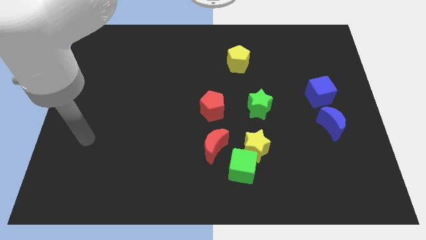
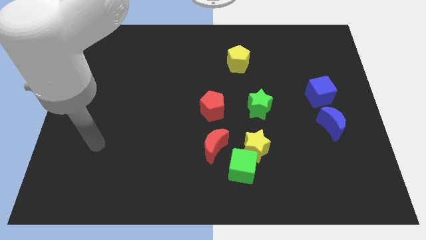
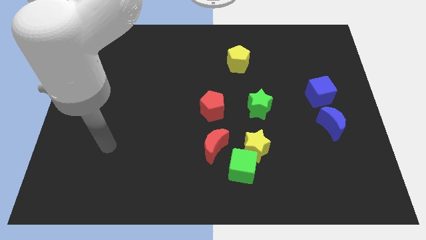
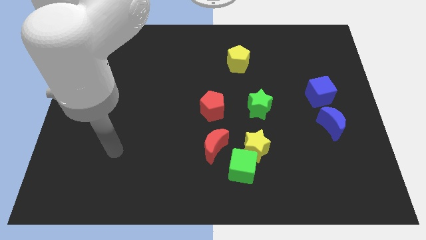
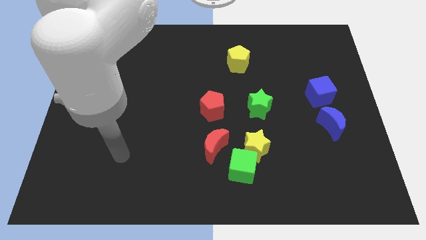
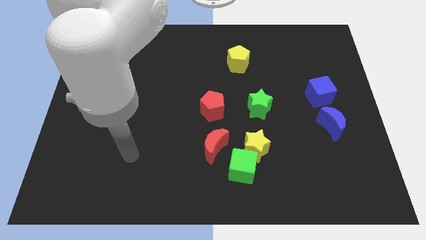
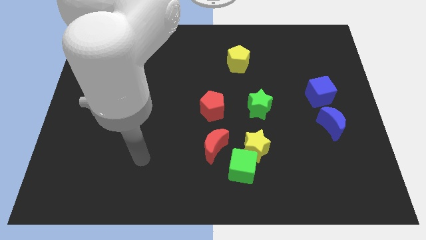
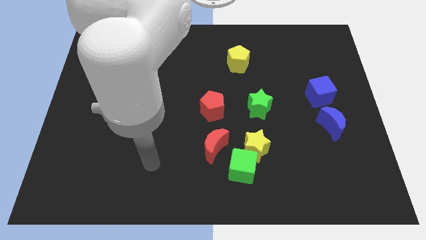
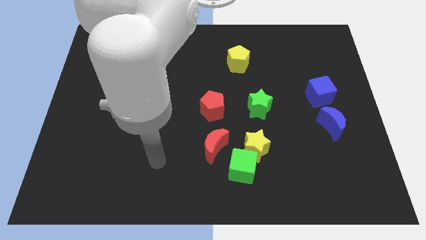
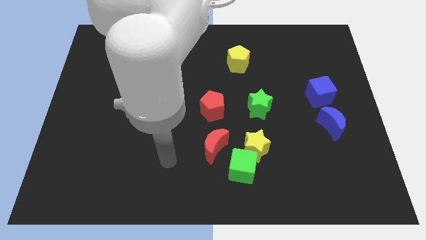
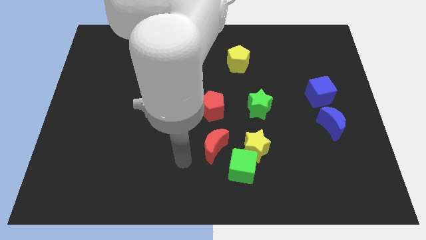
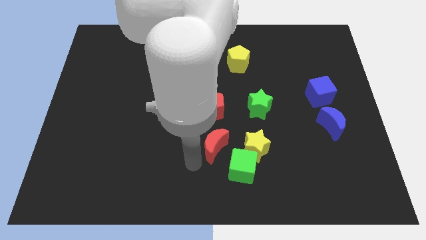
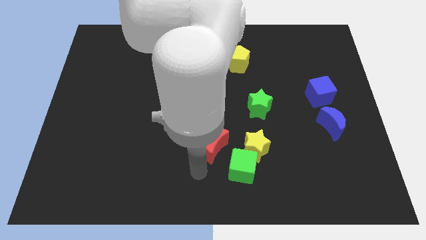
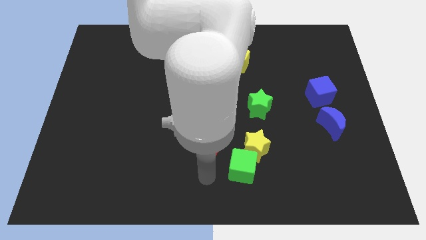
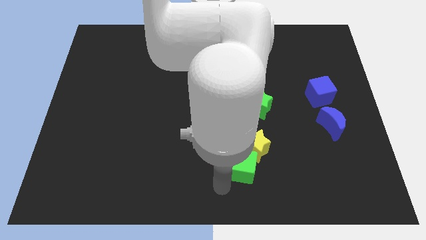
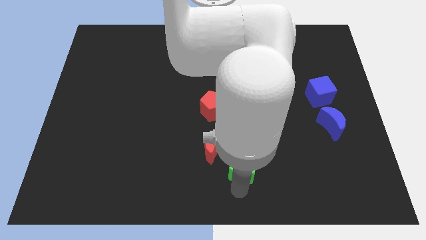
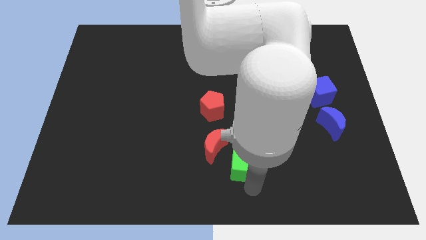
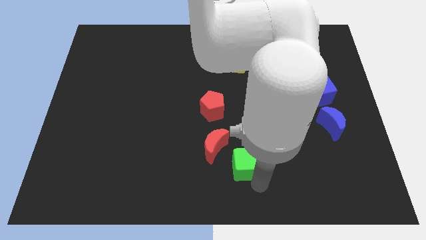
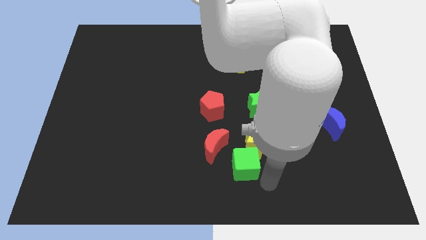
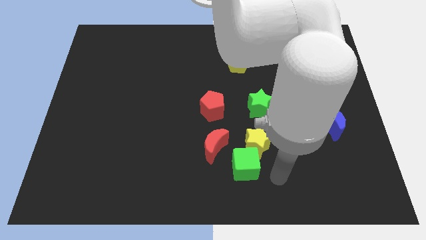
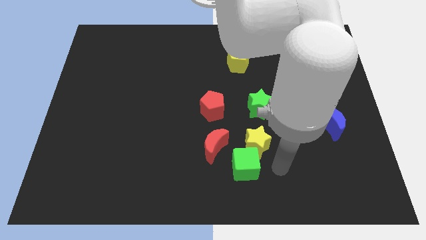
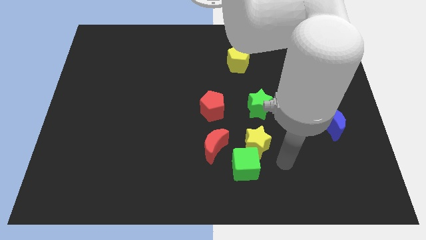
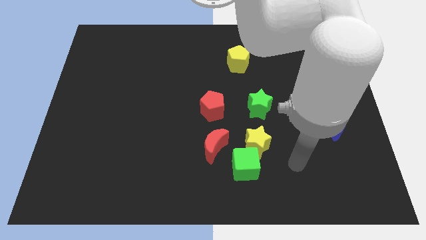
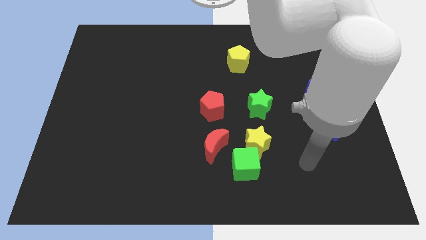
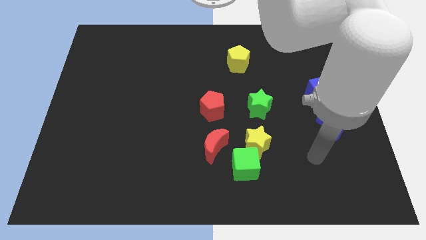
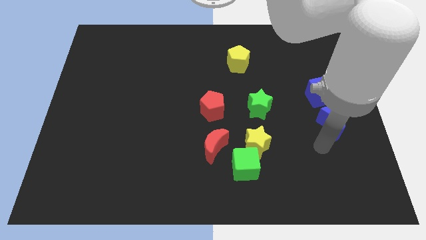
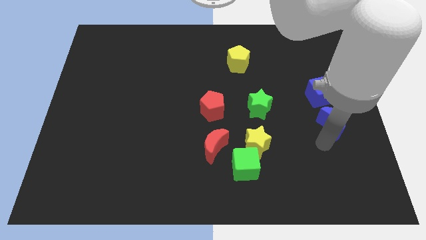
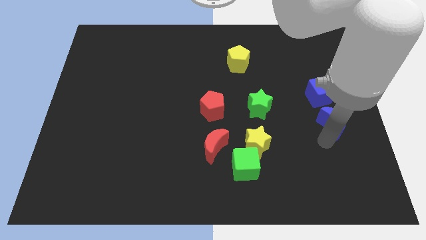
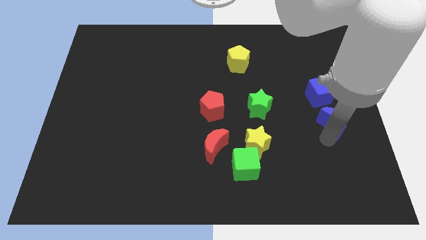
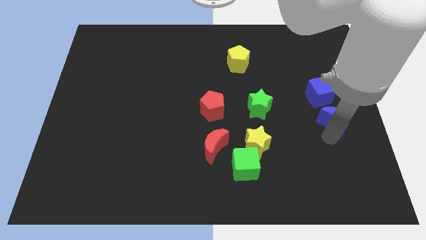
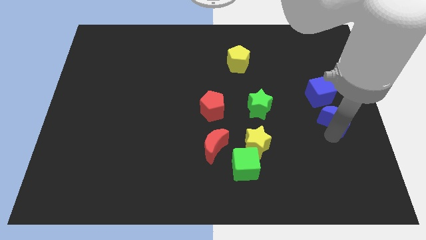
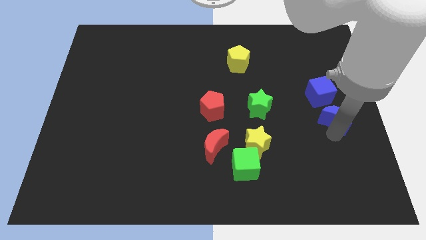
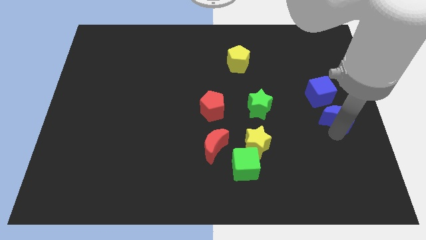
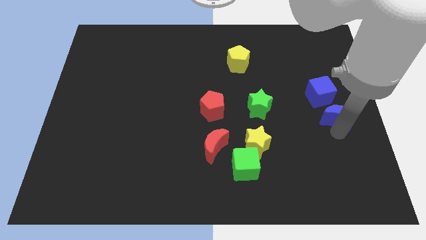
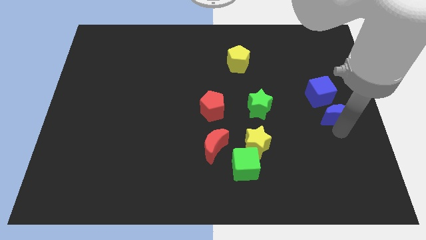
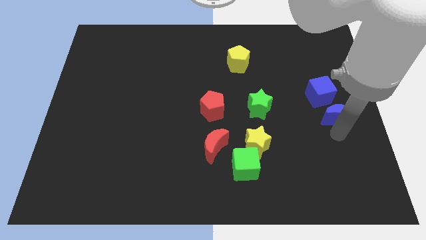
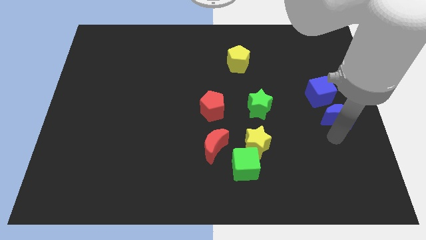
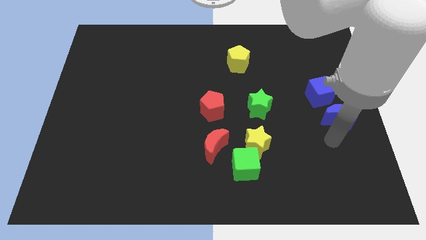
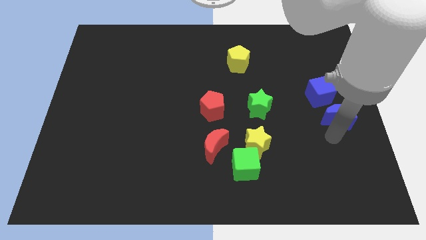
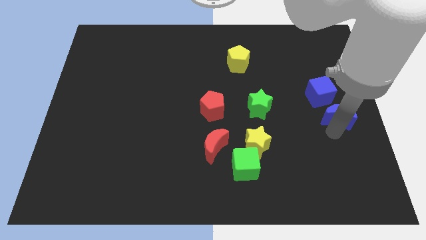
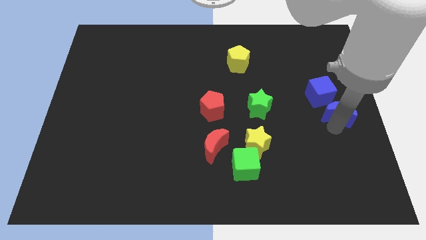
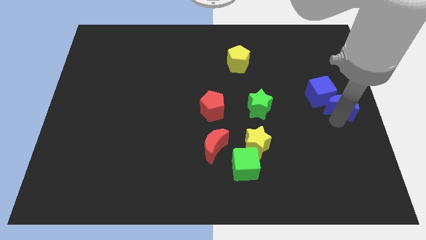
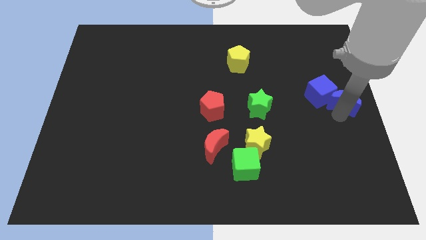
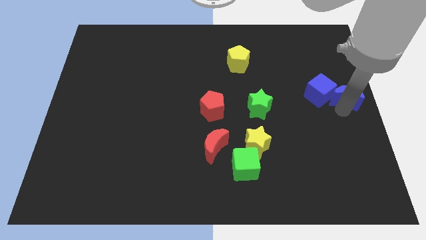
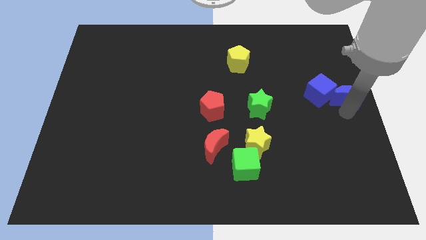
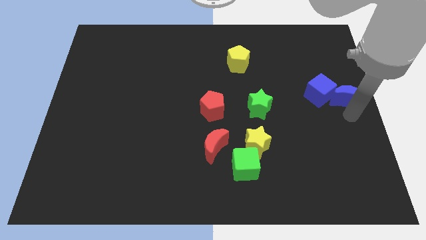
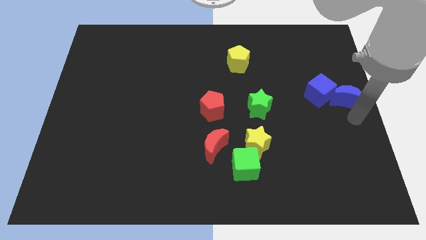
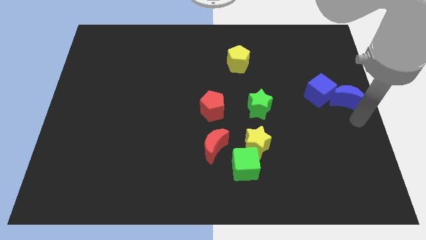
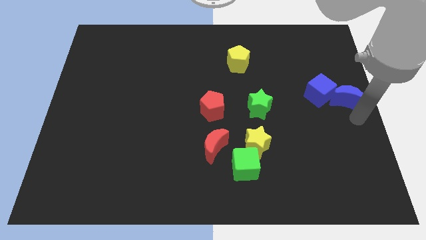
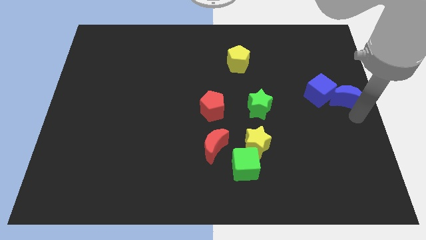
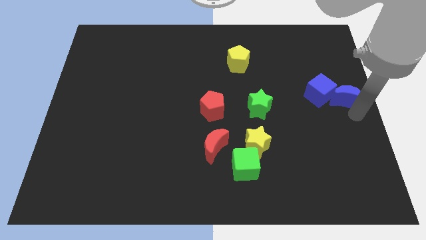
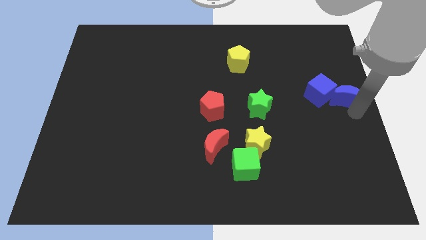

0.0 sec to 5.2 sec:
slightly slide the blue moon upwards

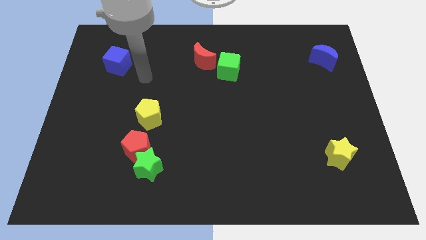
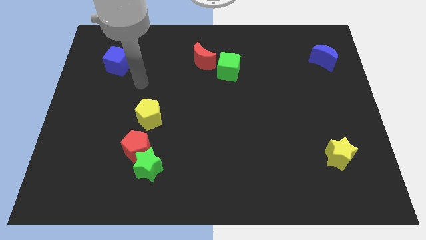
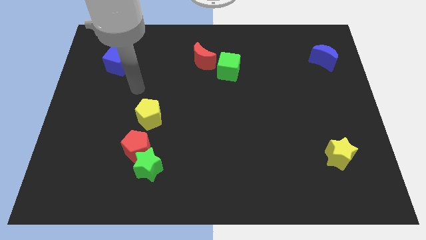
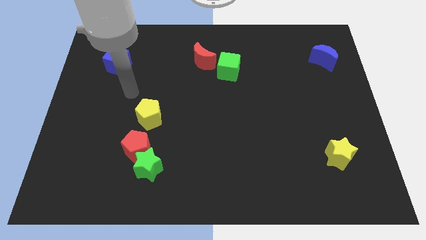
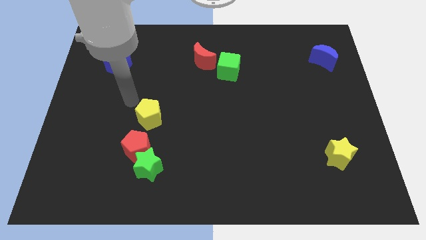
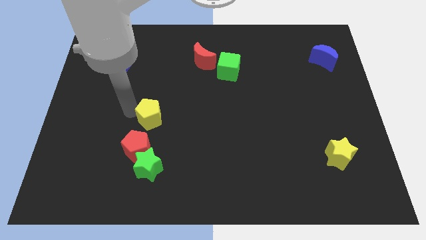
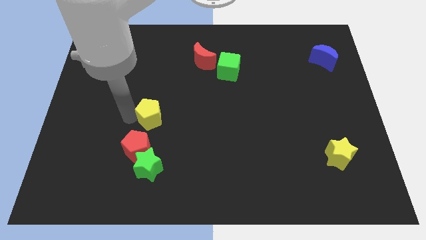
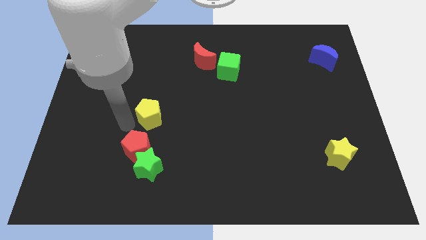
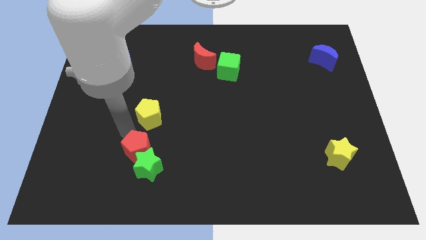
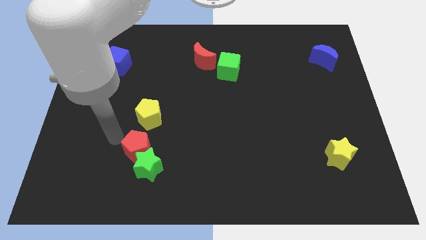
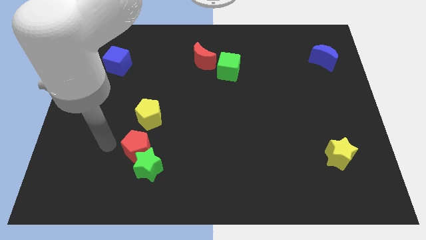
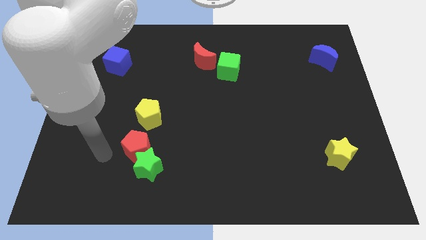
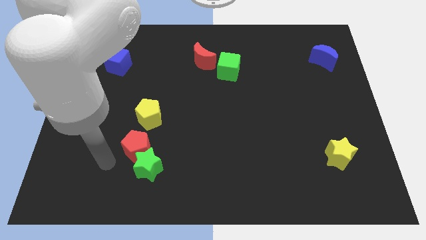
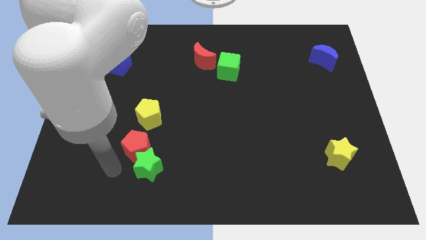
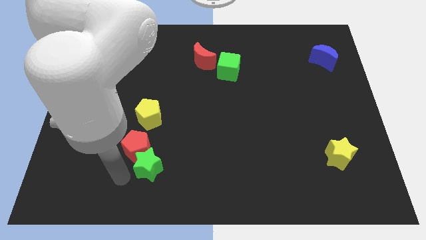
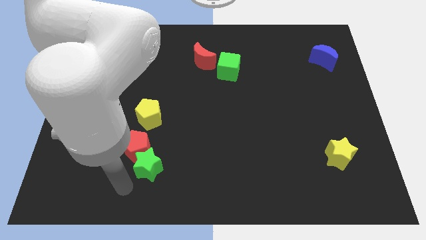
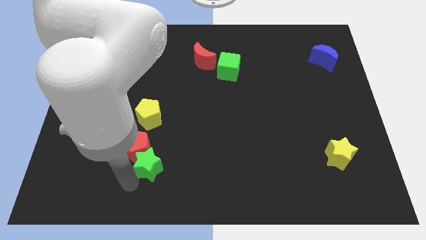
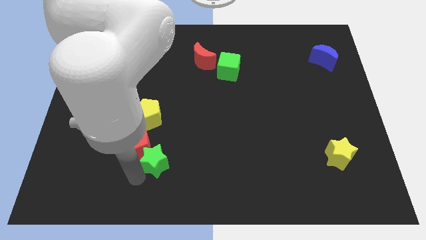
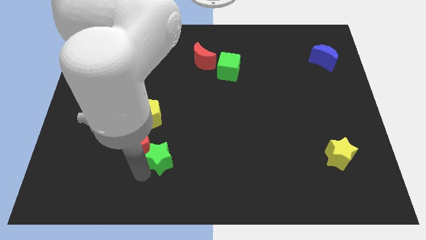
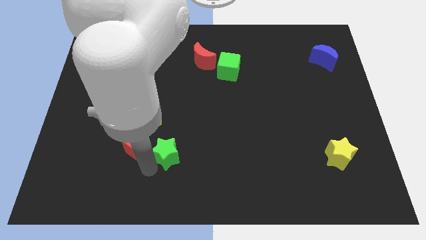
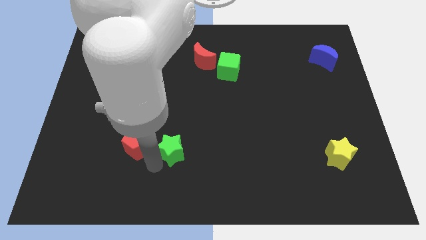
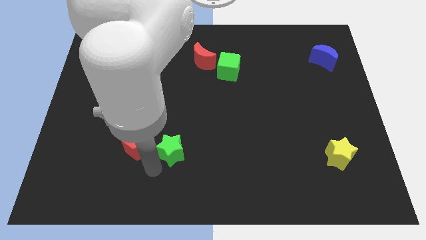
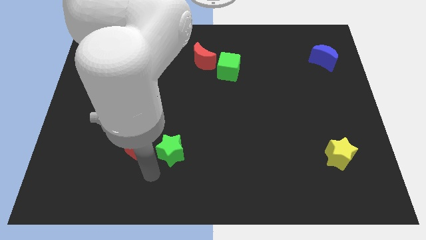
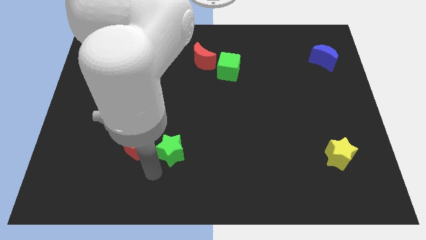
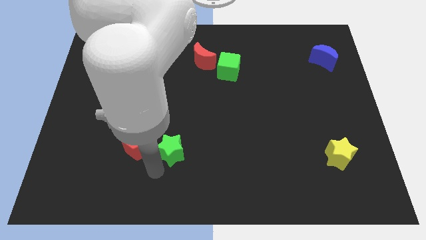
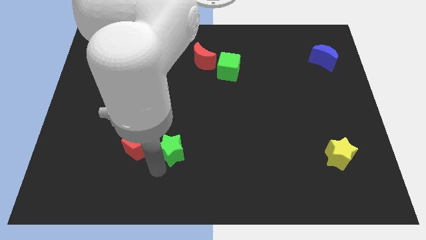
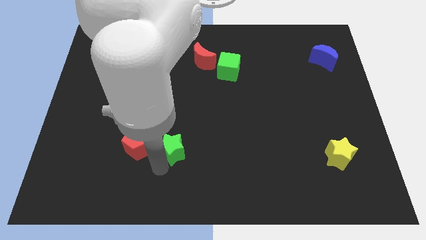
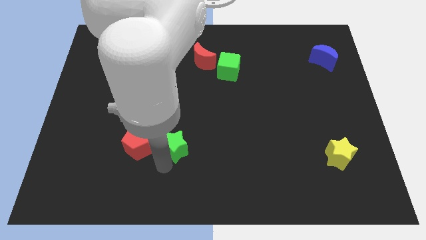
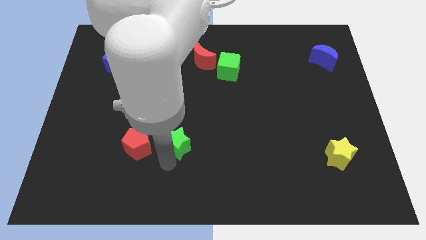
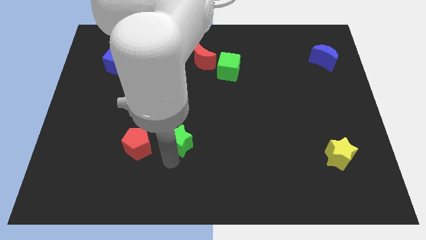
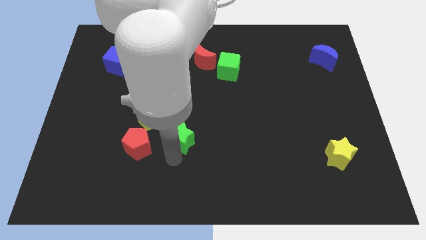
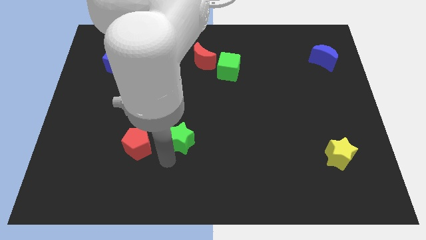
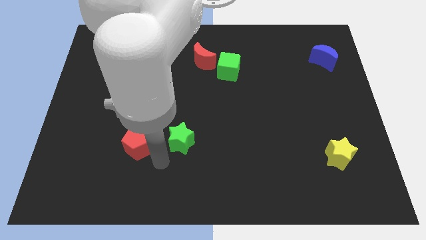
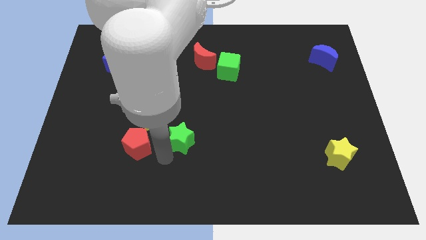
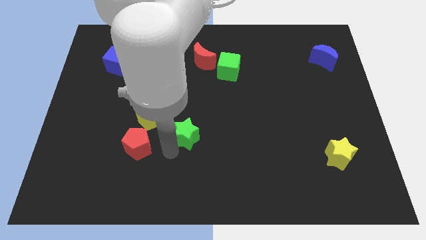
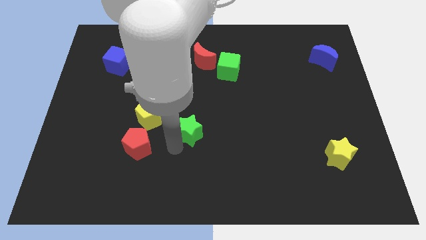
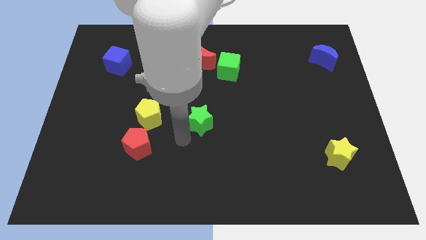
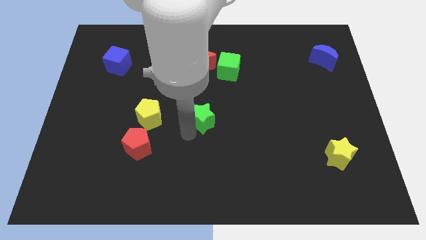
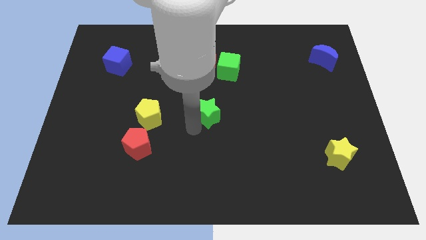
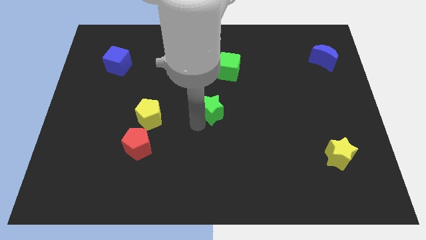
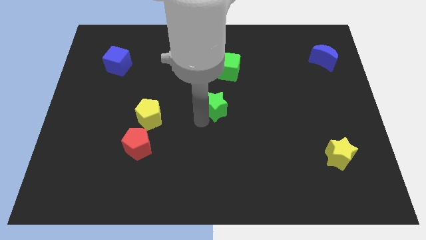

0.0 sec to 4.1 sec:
move the green star up and right diagonally
